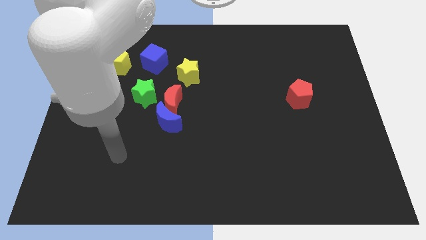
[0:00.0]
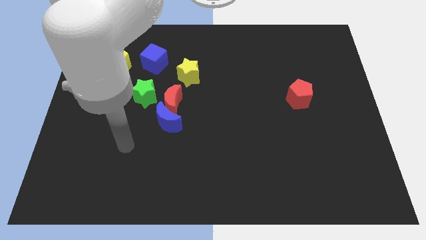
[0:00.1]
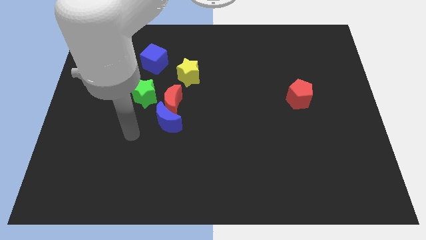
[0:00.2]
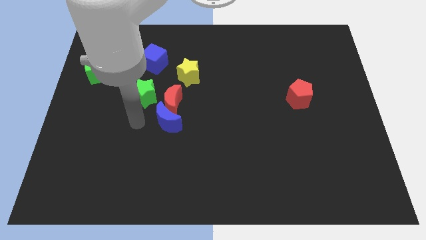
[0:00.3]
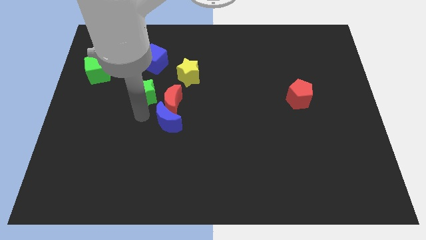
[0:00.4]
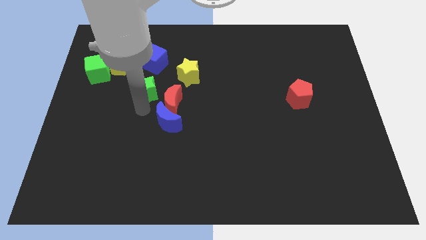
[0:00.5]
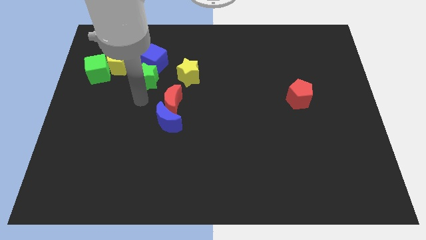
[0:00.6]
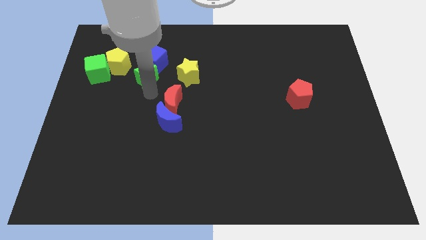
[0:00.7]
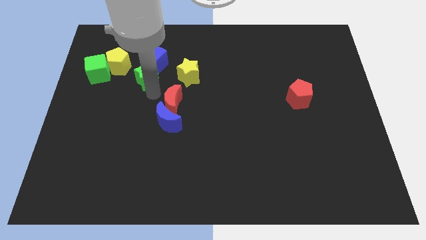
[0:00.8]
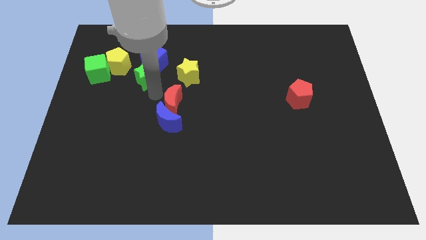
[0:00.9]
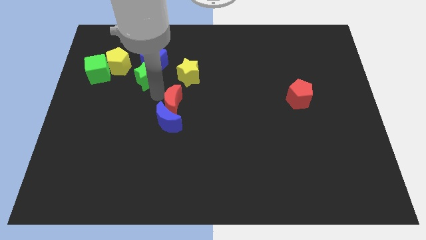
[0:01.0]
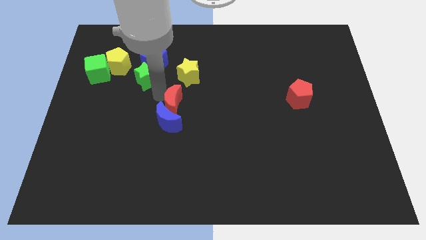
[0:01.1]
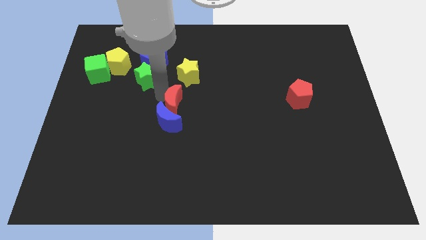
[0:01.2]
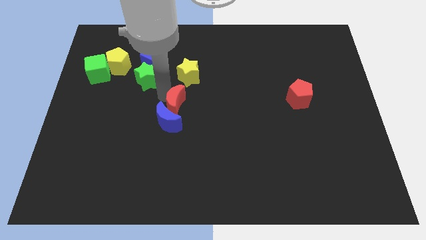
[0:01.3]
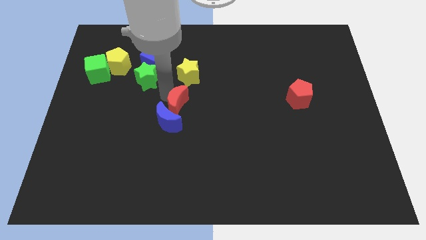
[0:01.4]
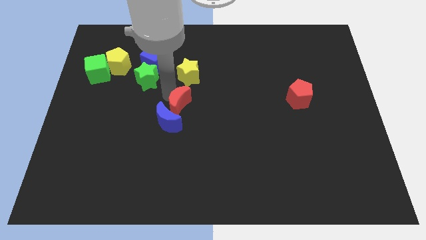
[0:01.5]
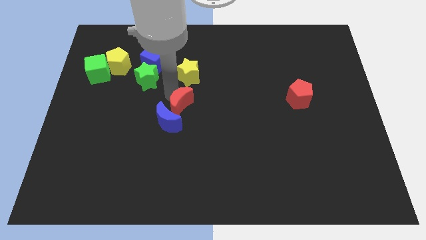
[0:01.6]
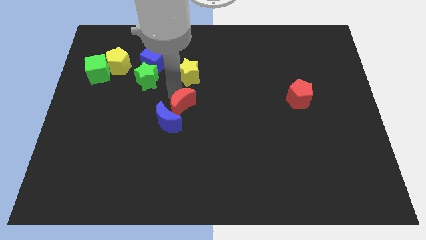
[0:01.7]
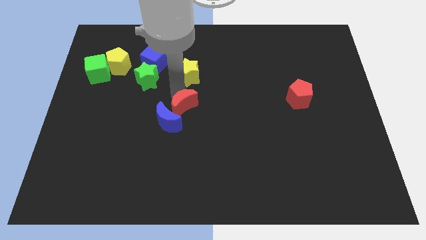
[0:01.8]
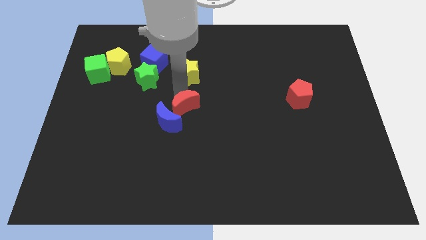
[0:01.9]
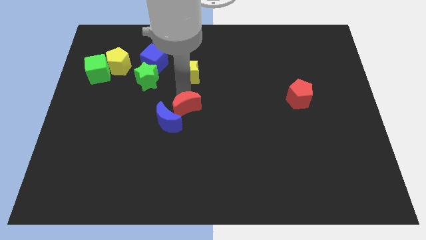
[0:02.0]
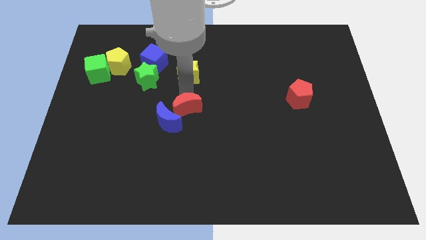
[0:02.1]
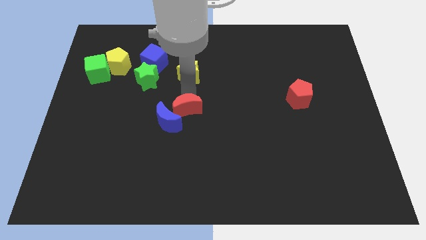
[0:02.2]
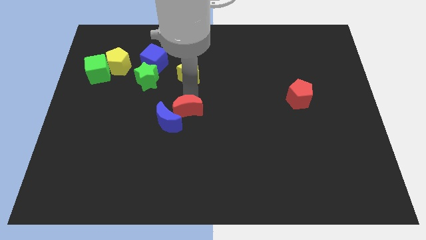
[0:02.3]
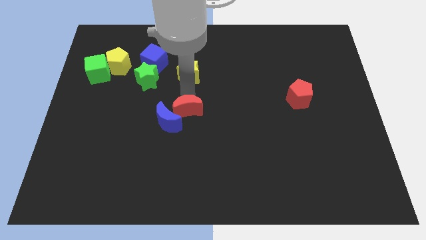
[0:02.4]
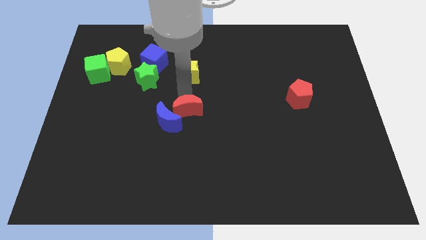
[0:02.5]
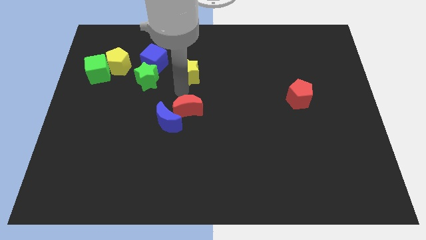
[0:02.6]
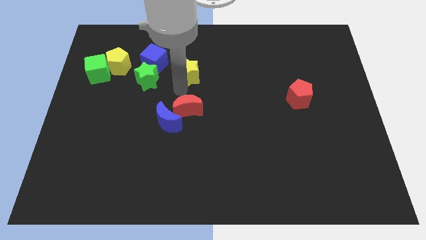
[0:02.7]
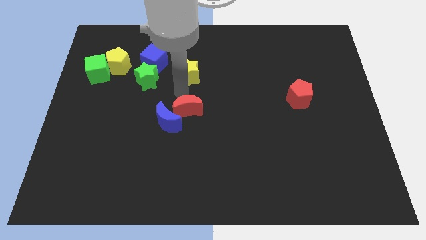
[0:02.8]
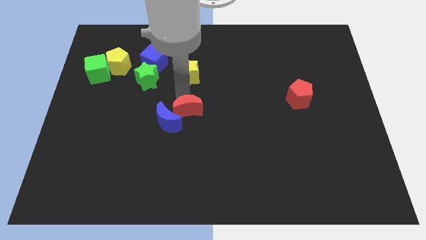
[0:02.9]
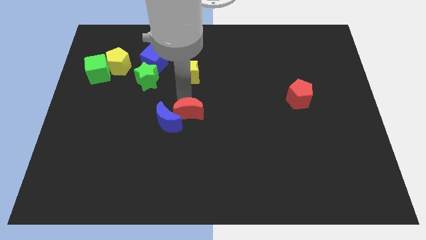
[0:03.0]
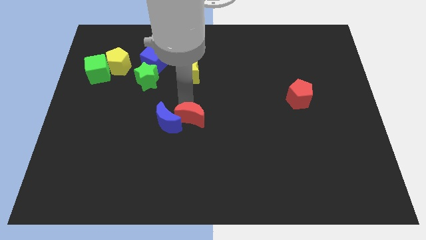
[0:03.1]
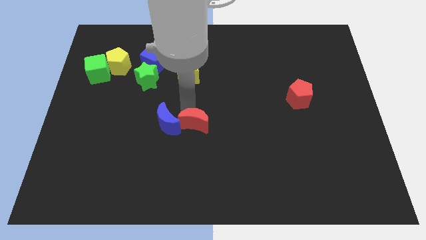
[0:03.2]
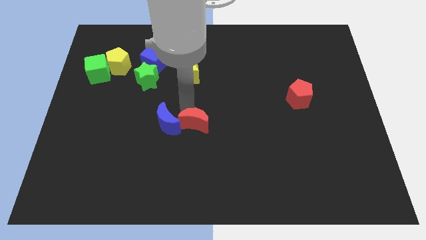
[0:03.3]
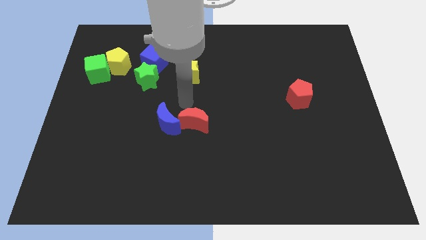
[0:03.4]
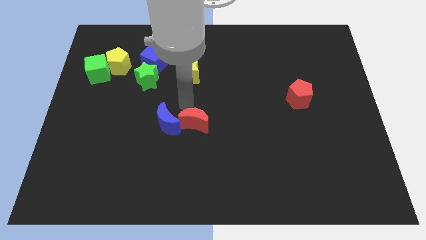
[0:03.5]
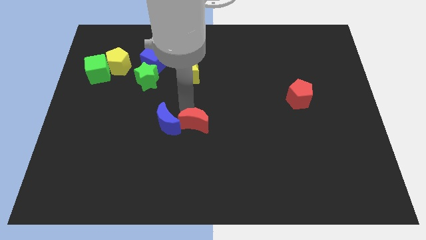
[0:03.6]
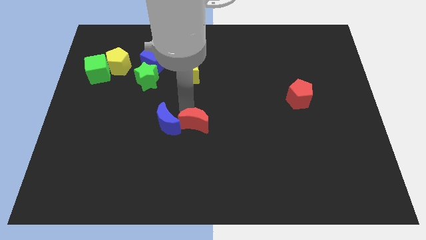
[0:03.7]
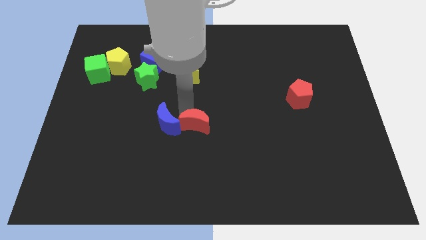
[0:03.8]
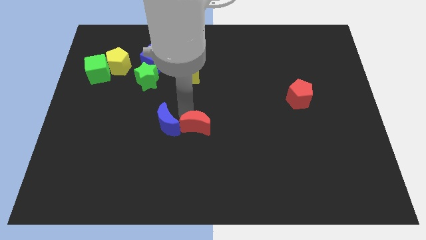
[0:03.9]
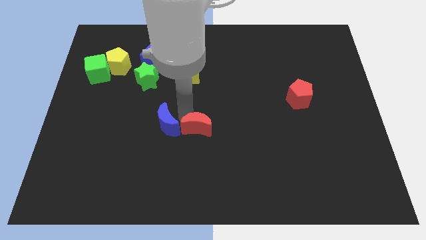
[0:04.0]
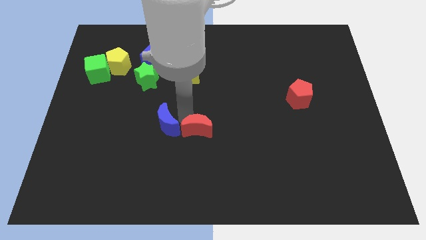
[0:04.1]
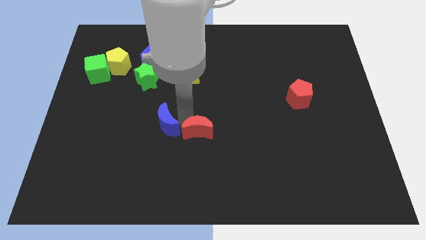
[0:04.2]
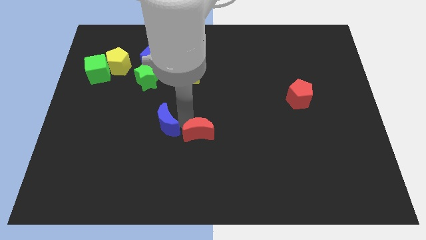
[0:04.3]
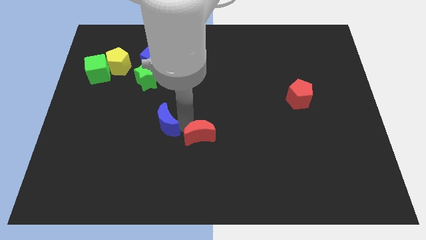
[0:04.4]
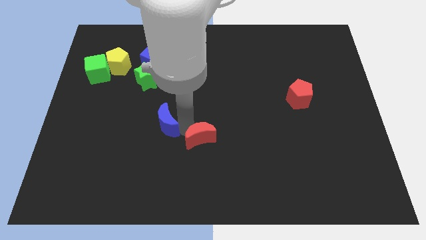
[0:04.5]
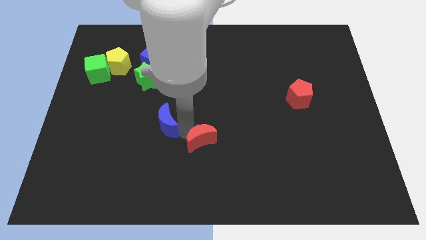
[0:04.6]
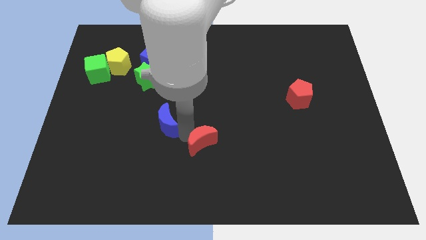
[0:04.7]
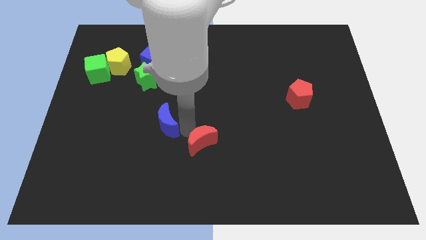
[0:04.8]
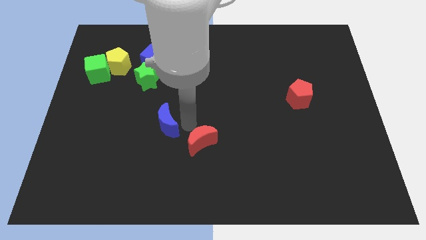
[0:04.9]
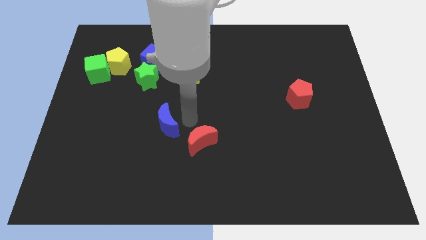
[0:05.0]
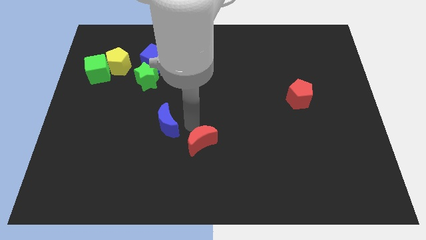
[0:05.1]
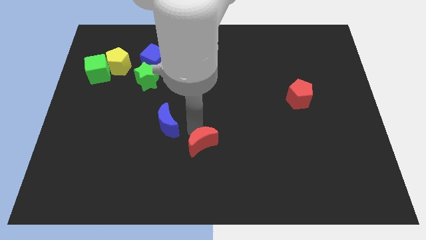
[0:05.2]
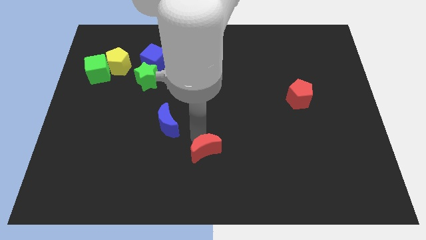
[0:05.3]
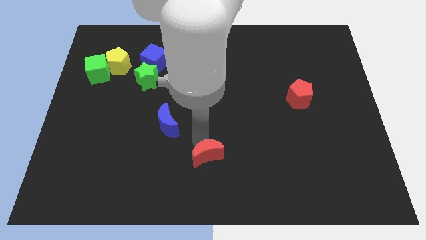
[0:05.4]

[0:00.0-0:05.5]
slide the red moon to the bottom side
